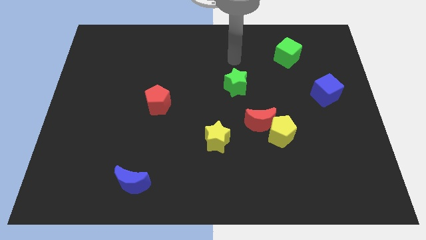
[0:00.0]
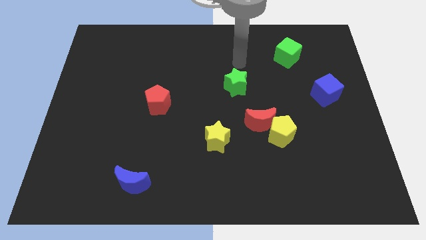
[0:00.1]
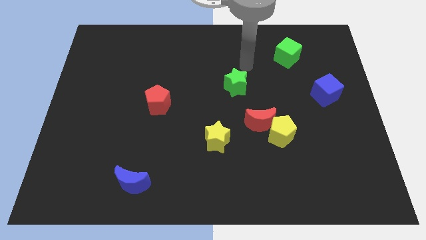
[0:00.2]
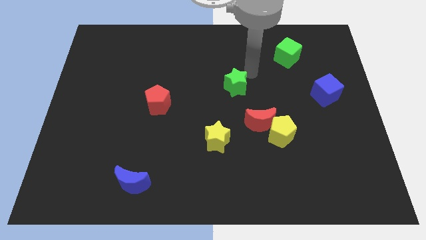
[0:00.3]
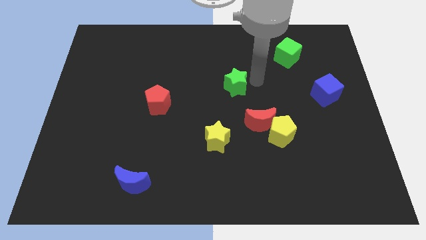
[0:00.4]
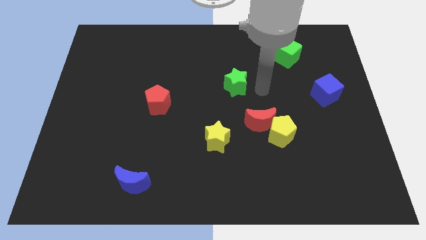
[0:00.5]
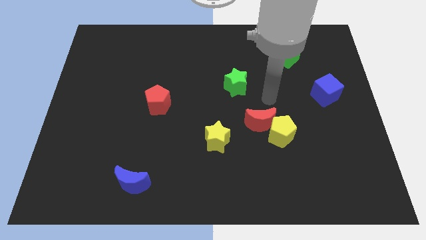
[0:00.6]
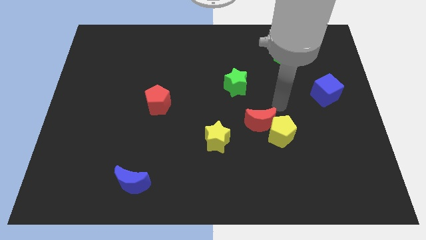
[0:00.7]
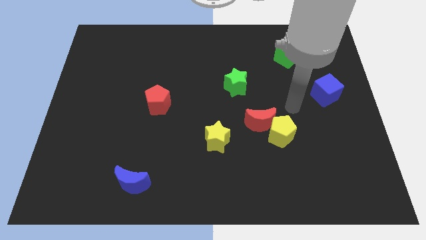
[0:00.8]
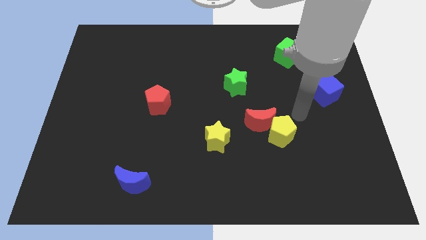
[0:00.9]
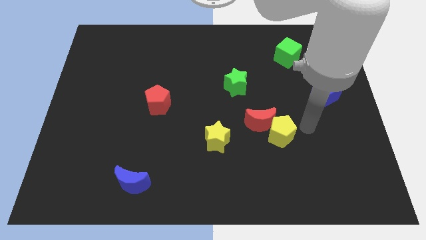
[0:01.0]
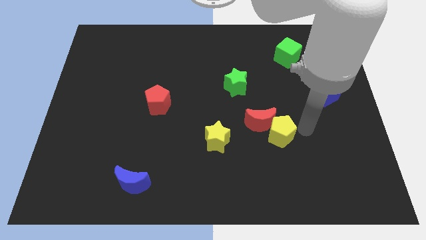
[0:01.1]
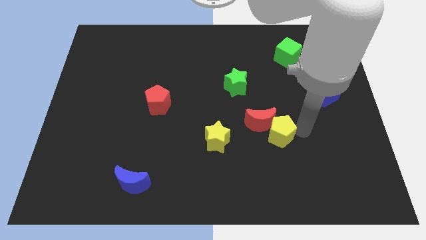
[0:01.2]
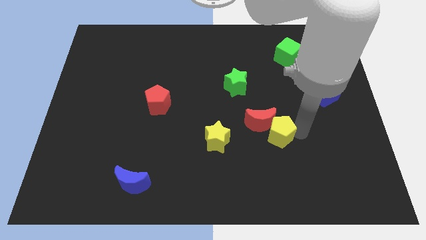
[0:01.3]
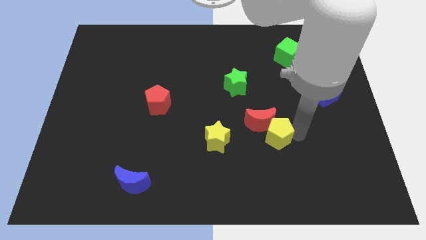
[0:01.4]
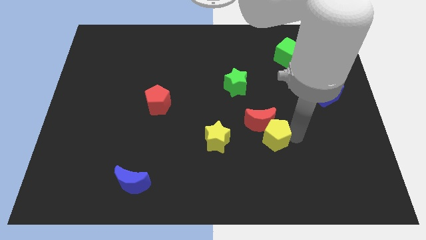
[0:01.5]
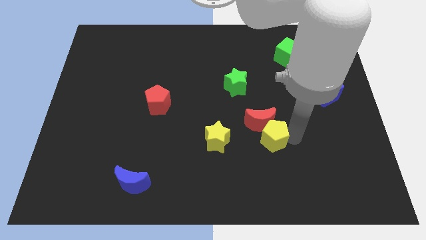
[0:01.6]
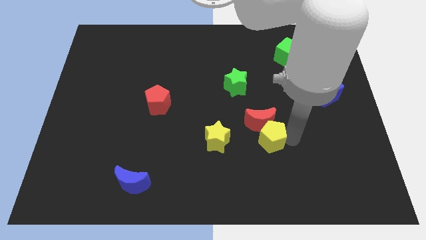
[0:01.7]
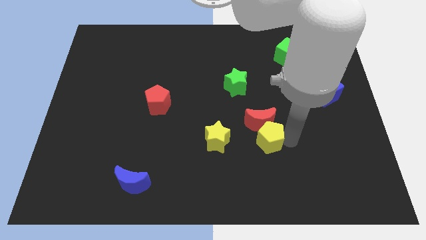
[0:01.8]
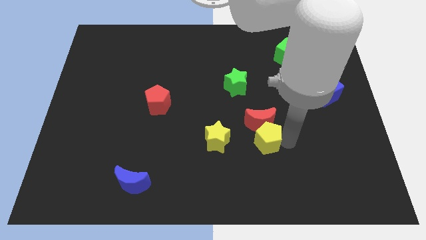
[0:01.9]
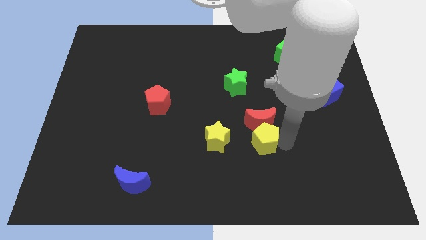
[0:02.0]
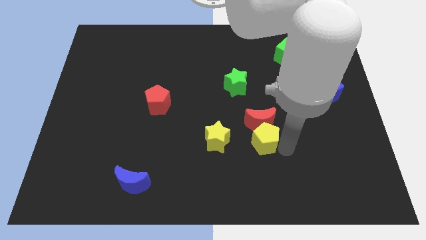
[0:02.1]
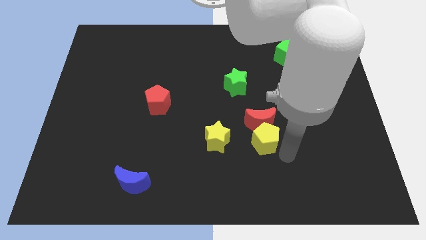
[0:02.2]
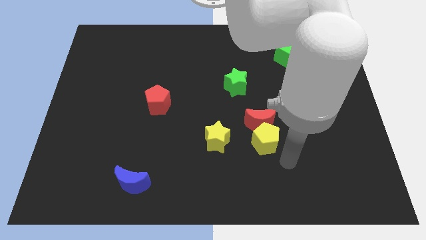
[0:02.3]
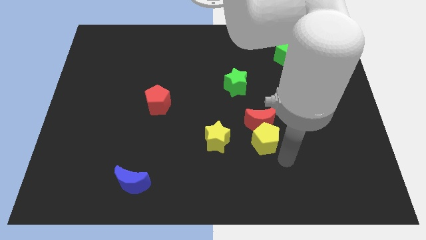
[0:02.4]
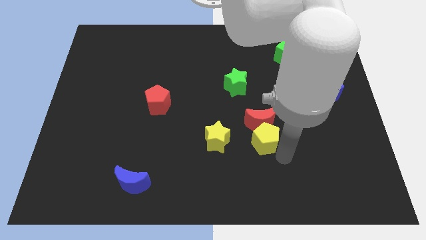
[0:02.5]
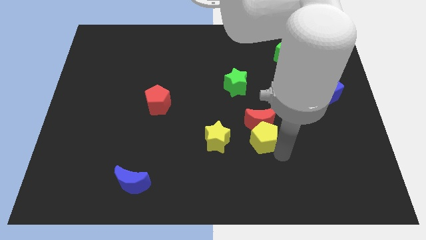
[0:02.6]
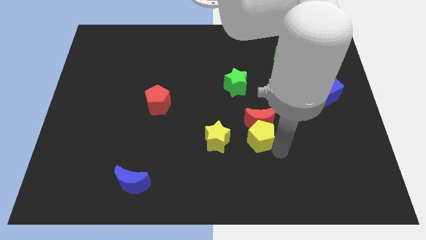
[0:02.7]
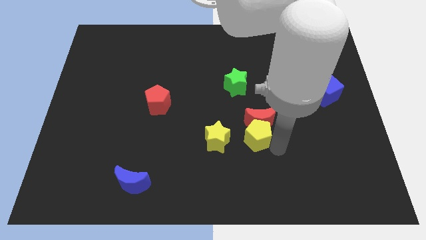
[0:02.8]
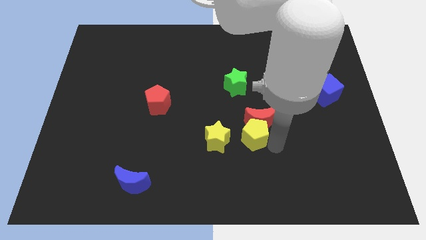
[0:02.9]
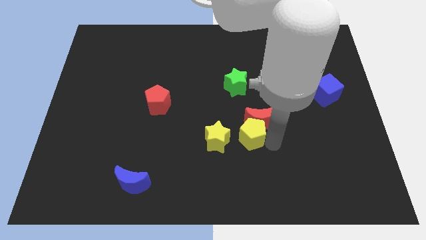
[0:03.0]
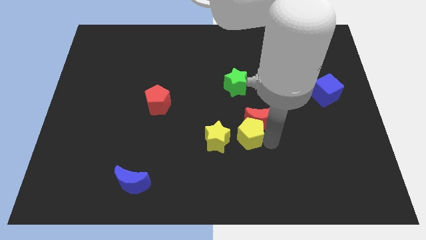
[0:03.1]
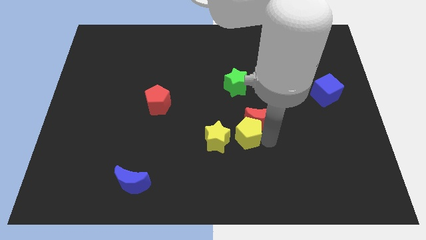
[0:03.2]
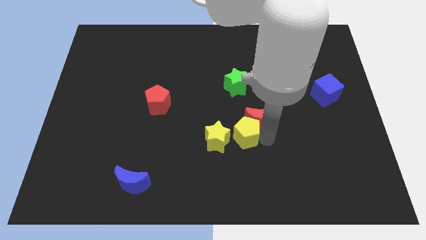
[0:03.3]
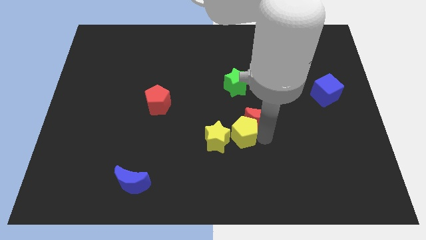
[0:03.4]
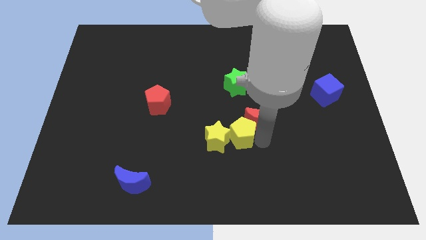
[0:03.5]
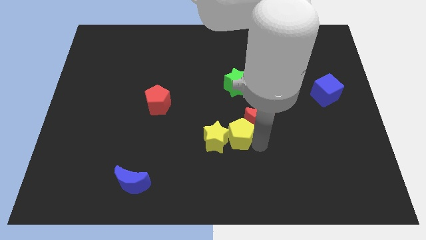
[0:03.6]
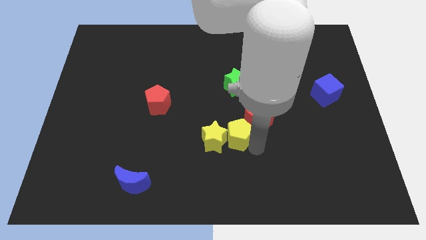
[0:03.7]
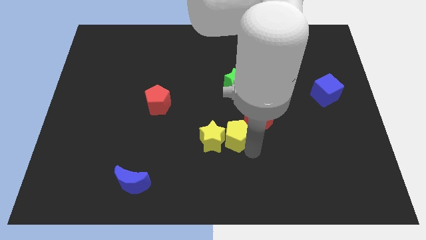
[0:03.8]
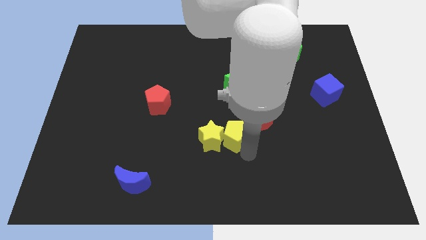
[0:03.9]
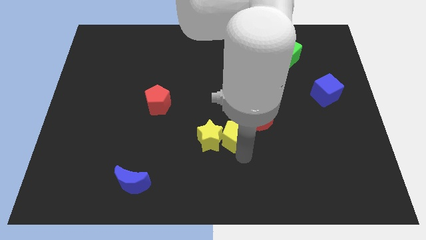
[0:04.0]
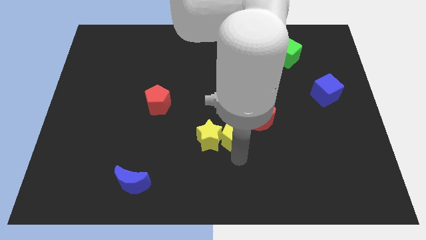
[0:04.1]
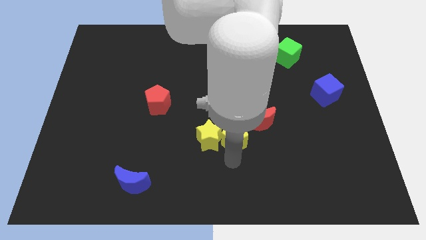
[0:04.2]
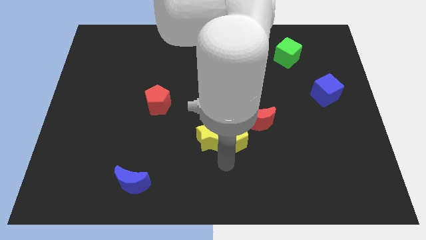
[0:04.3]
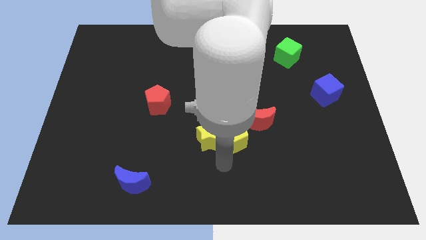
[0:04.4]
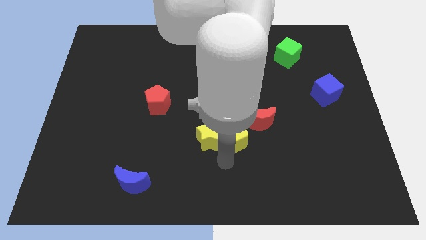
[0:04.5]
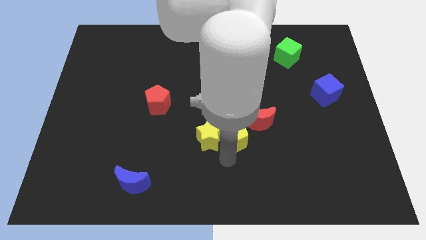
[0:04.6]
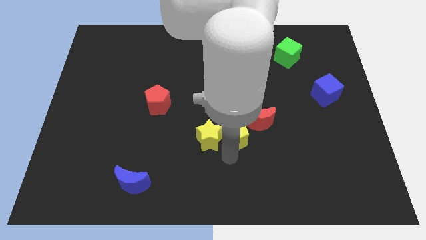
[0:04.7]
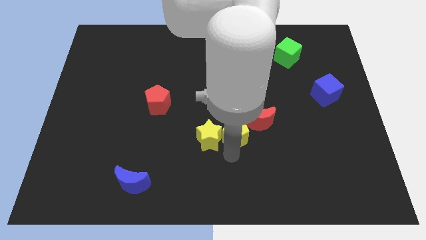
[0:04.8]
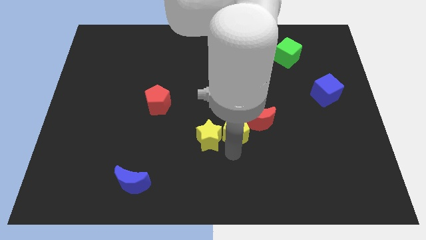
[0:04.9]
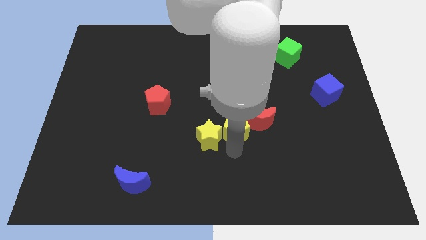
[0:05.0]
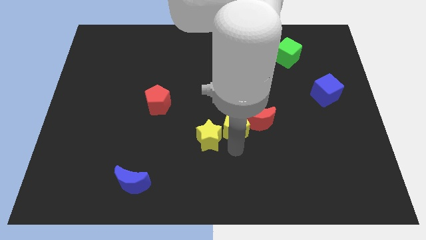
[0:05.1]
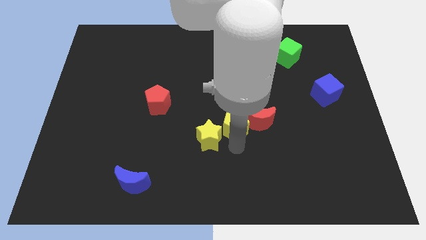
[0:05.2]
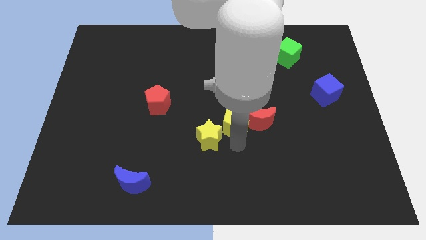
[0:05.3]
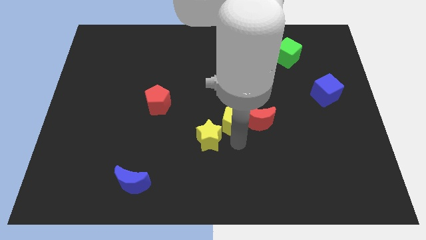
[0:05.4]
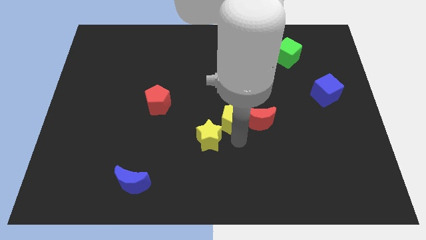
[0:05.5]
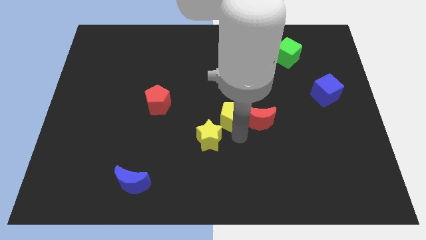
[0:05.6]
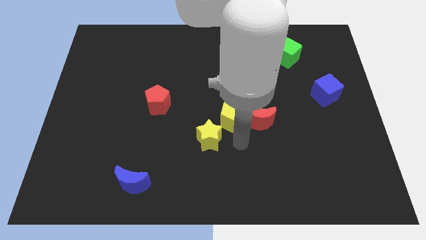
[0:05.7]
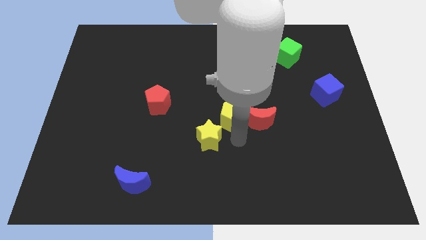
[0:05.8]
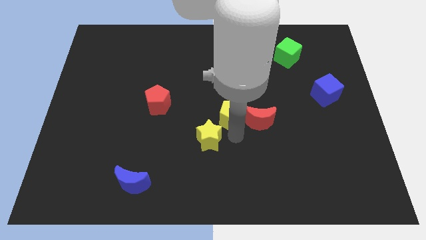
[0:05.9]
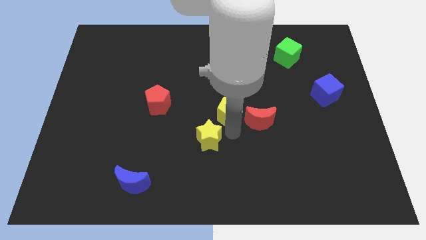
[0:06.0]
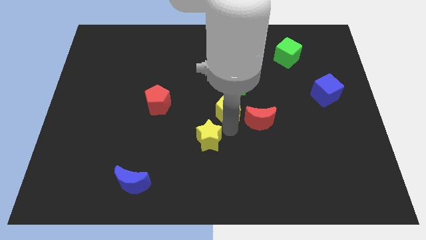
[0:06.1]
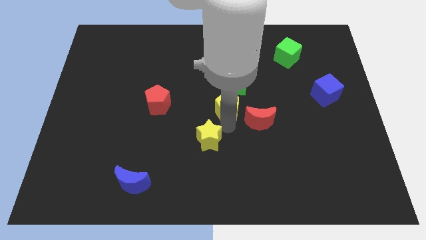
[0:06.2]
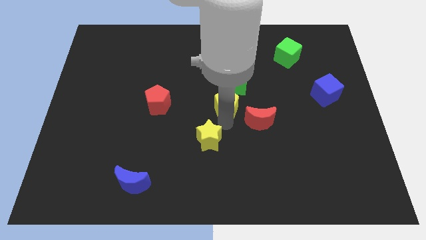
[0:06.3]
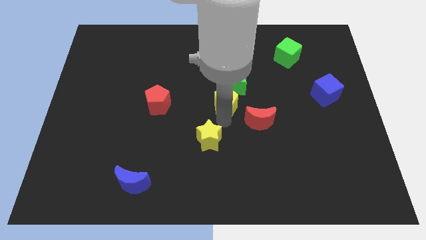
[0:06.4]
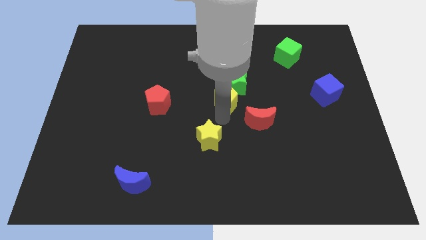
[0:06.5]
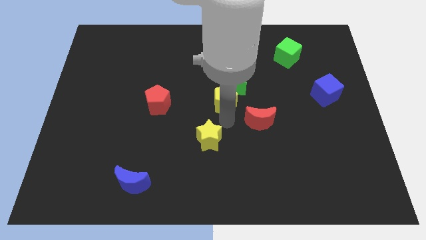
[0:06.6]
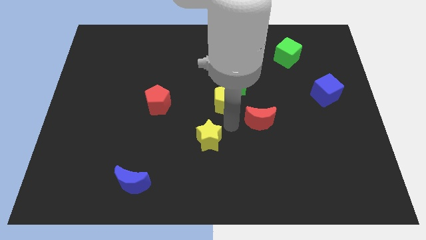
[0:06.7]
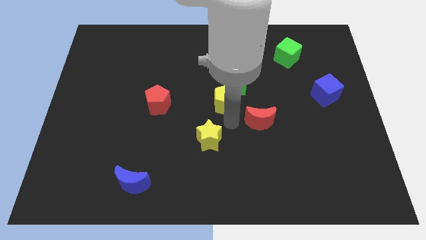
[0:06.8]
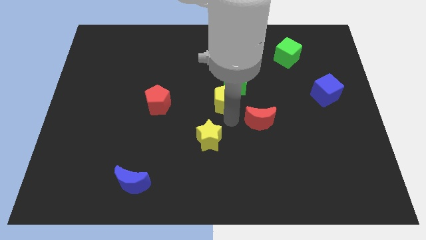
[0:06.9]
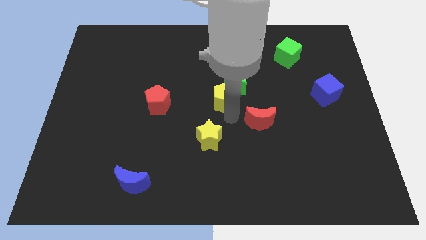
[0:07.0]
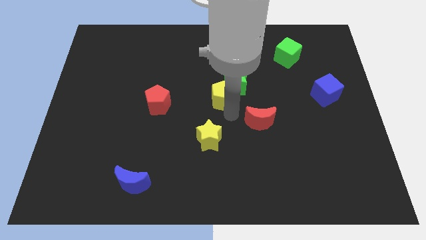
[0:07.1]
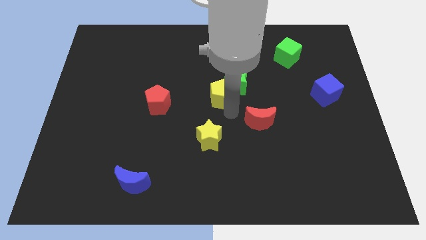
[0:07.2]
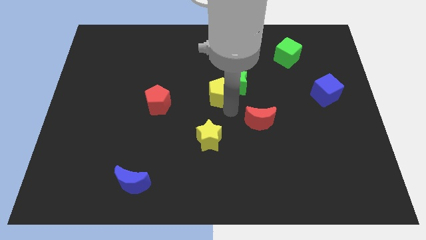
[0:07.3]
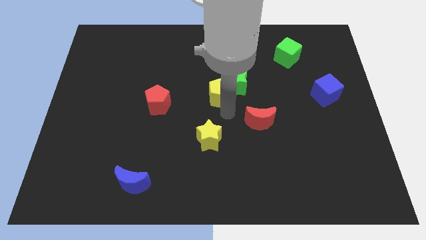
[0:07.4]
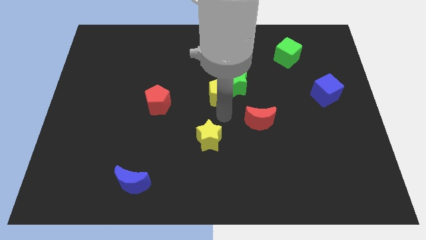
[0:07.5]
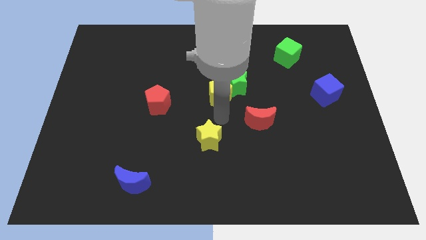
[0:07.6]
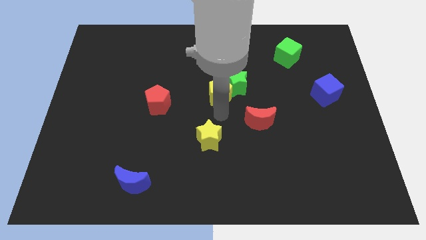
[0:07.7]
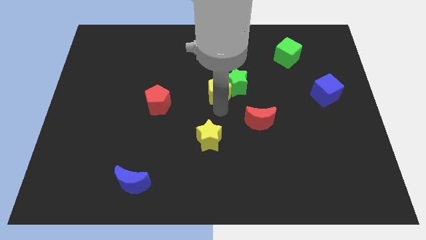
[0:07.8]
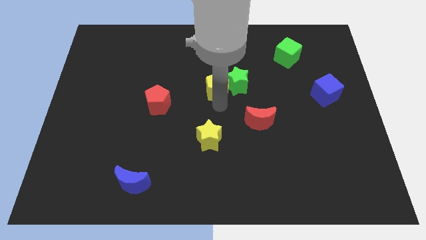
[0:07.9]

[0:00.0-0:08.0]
put the yellow pentagon to the top left of the green star
